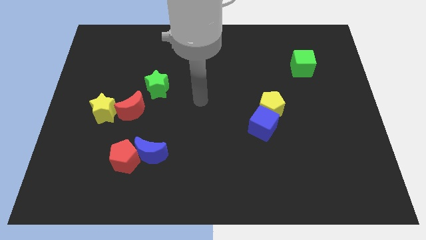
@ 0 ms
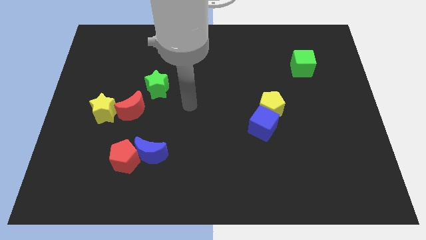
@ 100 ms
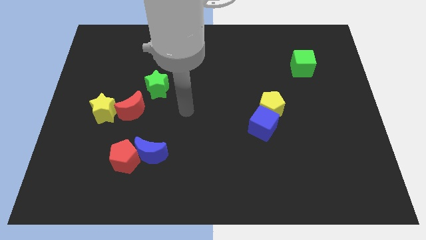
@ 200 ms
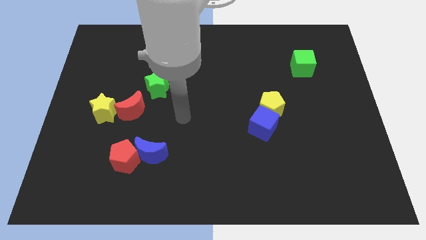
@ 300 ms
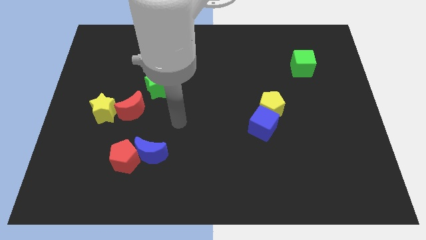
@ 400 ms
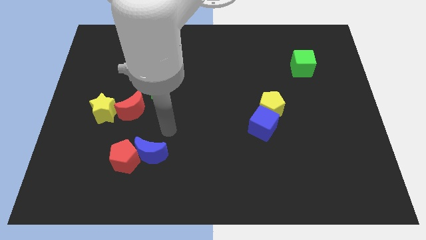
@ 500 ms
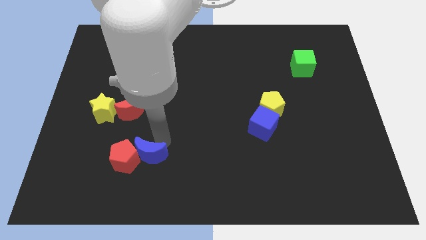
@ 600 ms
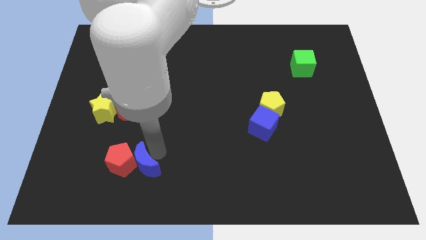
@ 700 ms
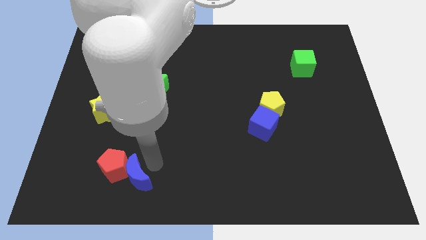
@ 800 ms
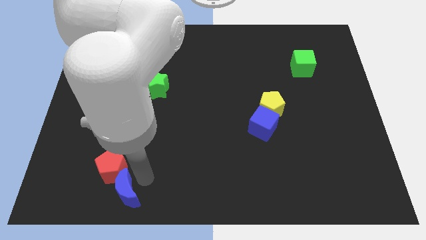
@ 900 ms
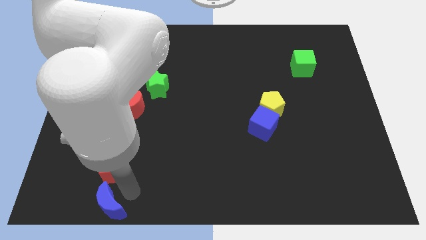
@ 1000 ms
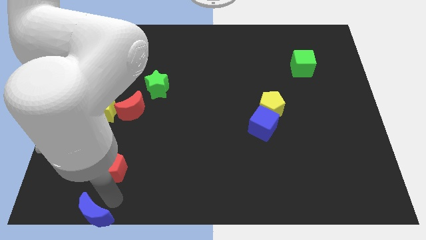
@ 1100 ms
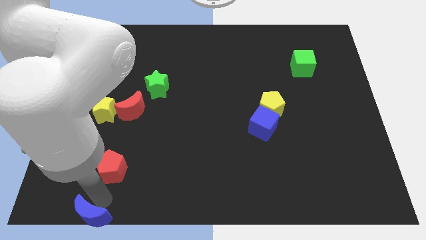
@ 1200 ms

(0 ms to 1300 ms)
move the red pentagon away from the blue moon

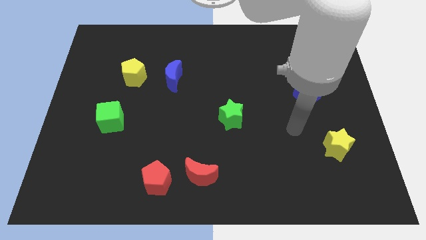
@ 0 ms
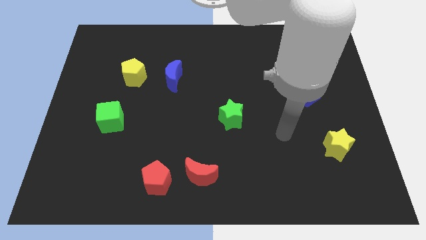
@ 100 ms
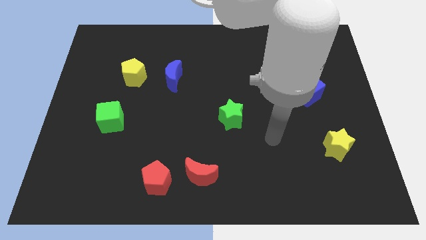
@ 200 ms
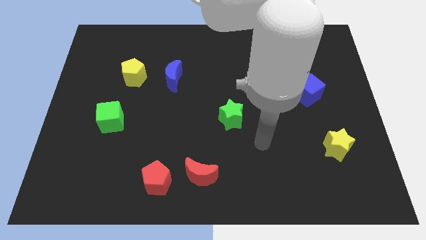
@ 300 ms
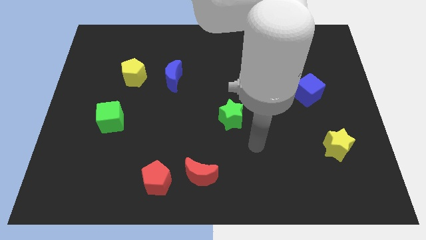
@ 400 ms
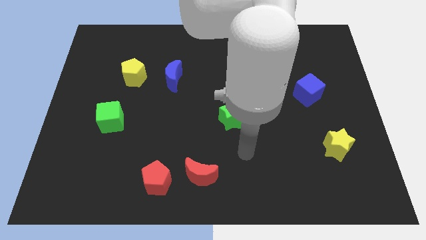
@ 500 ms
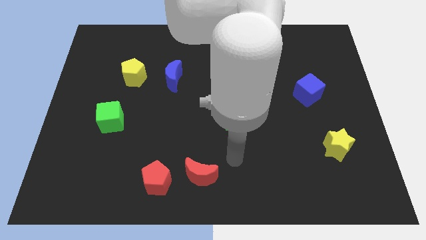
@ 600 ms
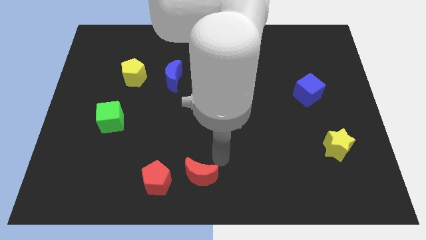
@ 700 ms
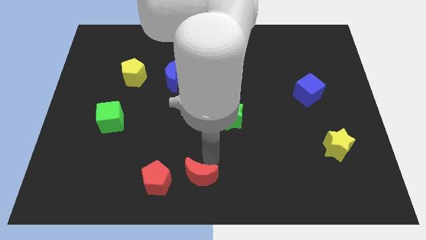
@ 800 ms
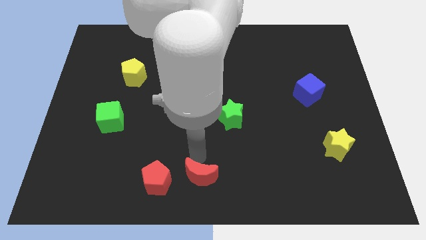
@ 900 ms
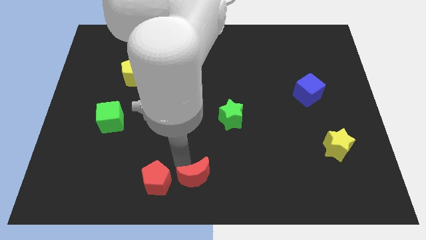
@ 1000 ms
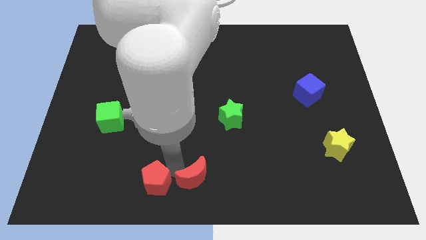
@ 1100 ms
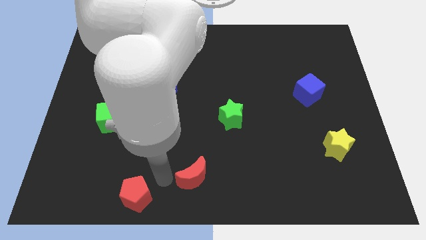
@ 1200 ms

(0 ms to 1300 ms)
separate the red moon from the red pentagon

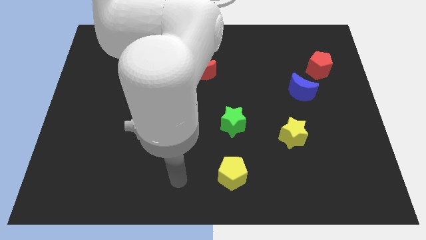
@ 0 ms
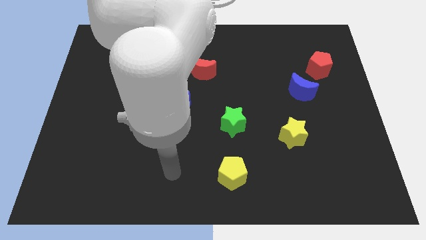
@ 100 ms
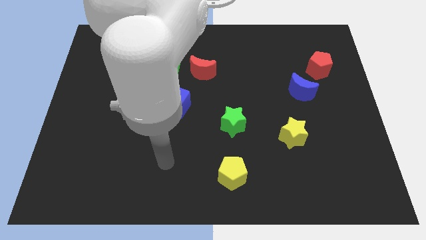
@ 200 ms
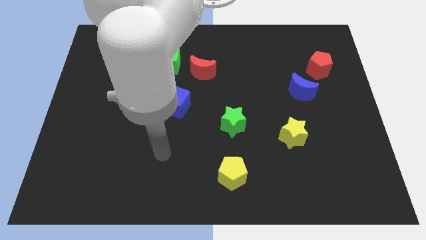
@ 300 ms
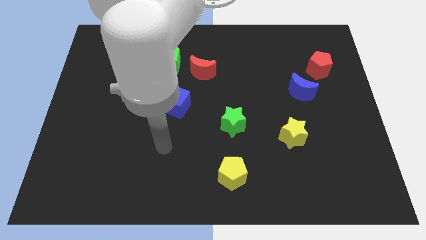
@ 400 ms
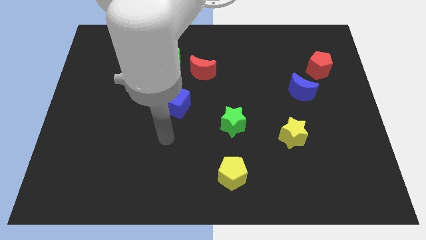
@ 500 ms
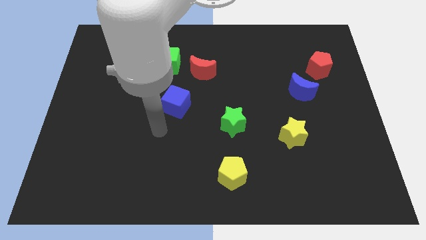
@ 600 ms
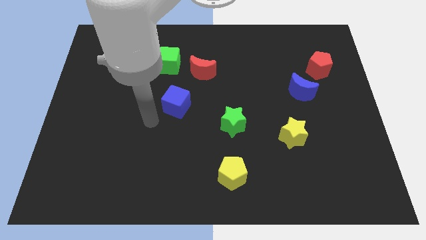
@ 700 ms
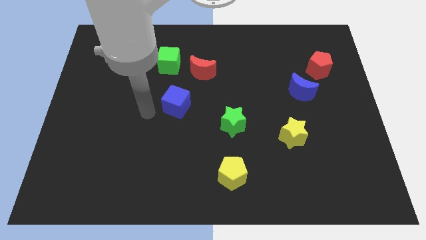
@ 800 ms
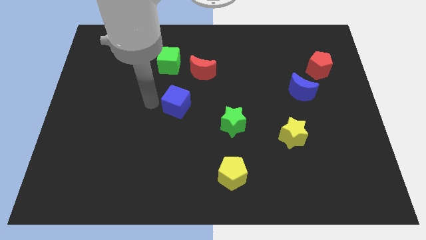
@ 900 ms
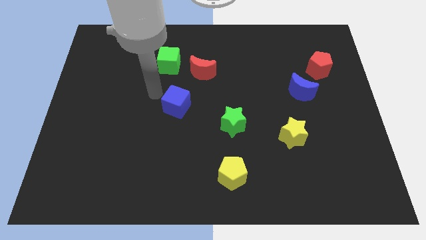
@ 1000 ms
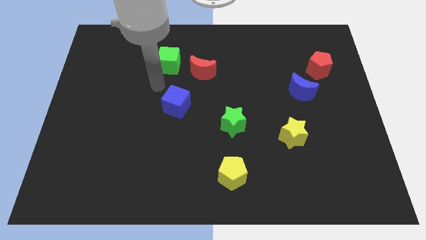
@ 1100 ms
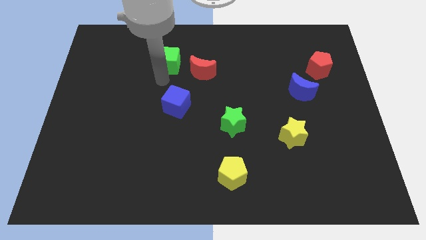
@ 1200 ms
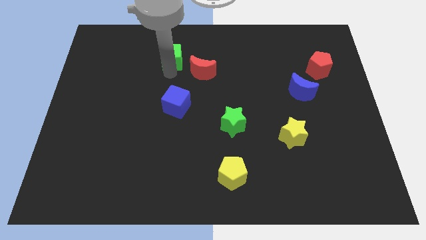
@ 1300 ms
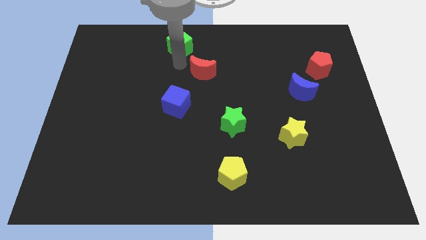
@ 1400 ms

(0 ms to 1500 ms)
move the red moon away from the green cube

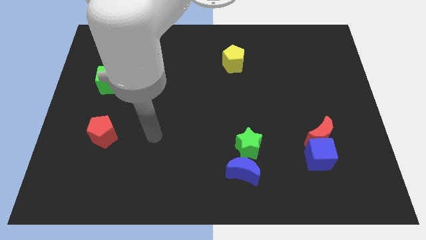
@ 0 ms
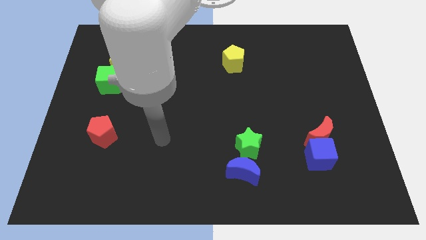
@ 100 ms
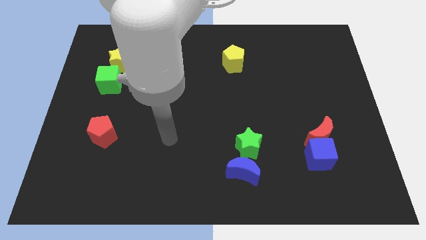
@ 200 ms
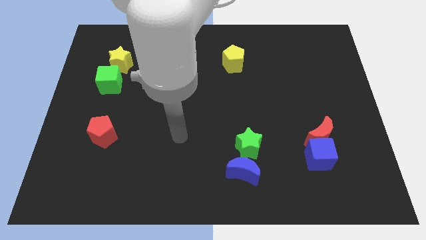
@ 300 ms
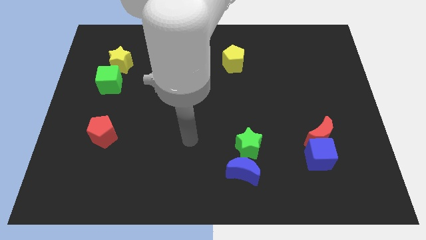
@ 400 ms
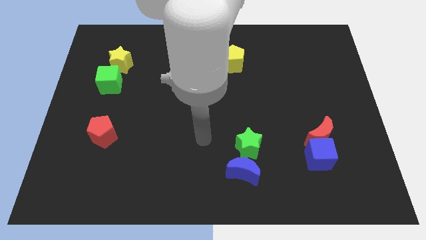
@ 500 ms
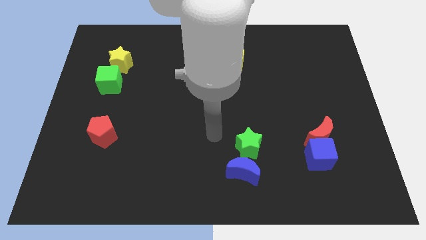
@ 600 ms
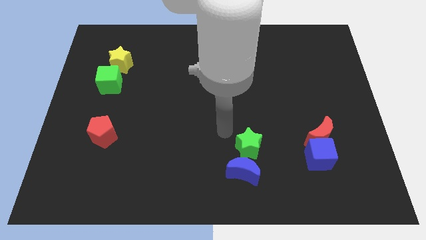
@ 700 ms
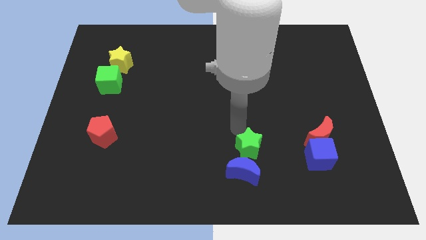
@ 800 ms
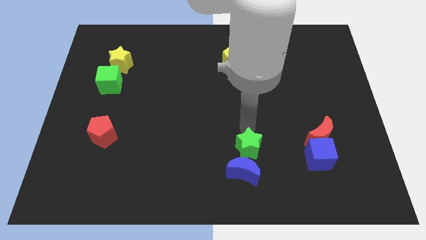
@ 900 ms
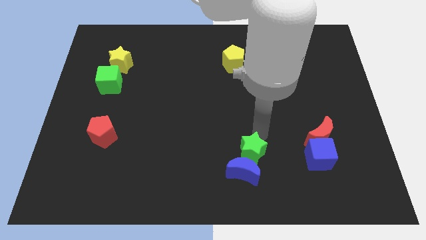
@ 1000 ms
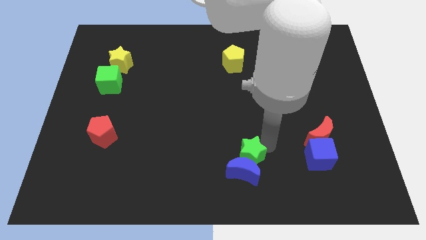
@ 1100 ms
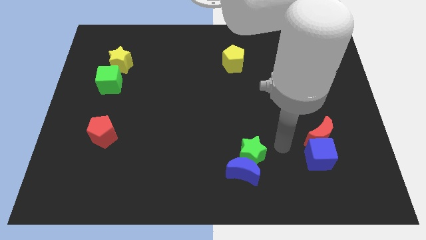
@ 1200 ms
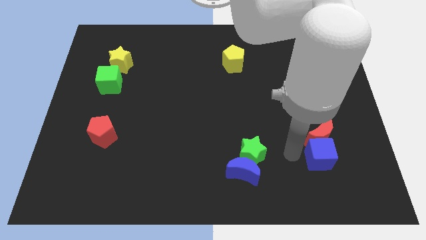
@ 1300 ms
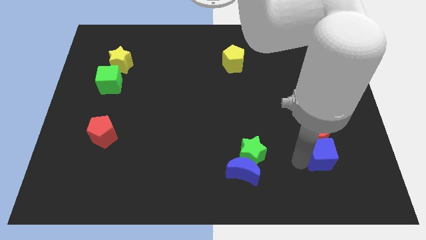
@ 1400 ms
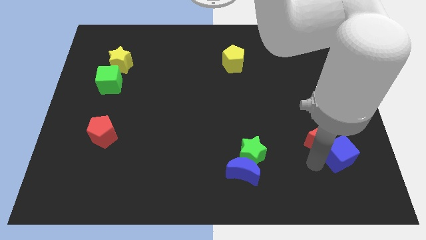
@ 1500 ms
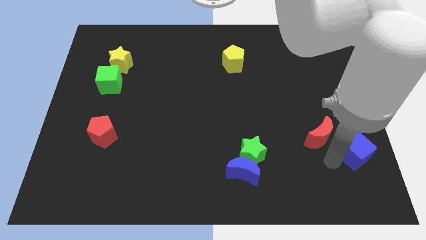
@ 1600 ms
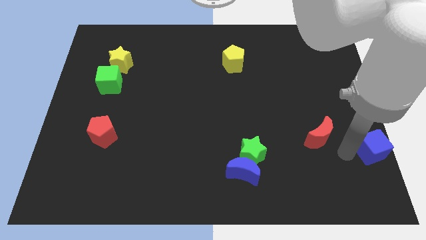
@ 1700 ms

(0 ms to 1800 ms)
pull the red moon apart from the blue cube

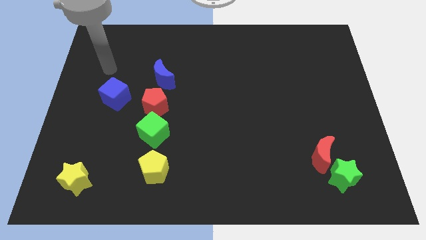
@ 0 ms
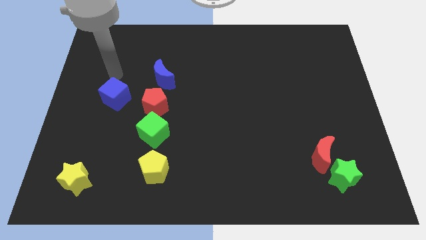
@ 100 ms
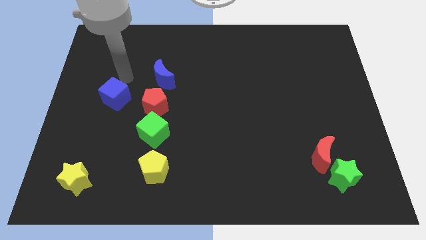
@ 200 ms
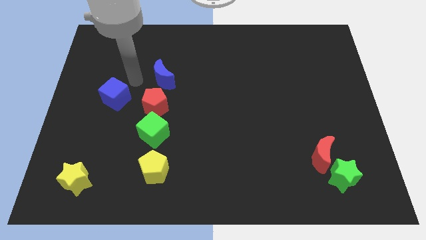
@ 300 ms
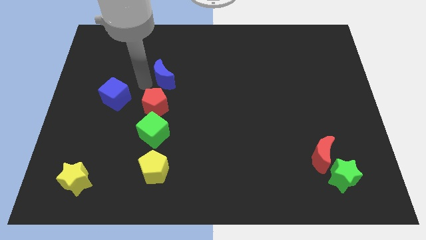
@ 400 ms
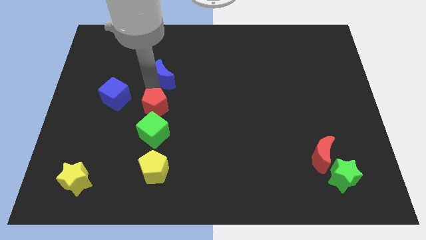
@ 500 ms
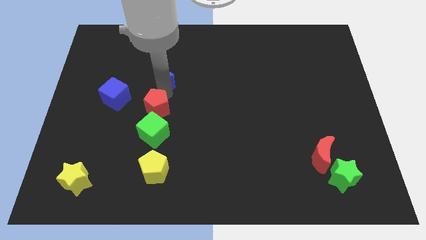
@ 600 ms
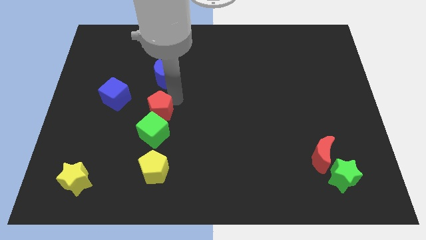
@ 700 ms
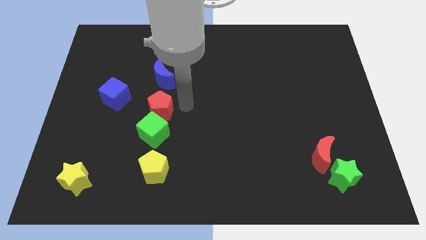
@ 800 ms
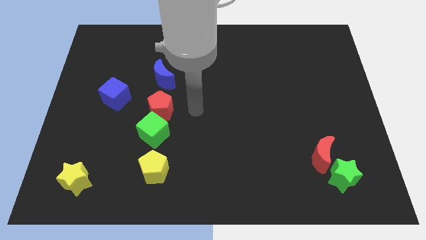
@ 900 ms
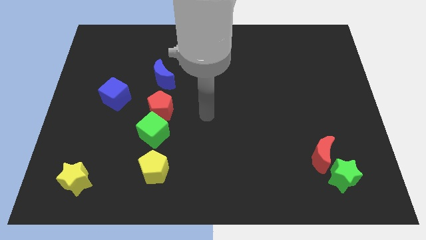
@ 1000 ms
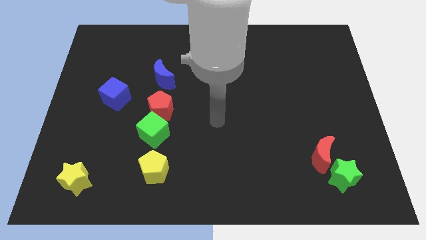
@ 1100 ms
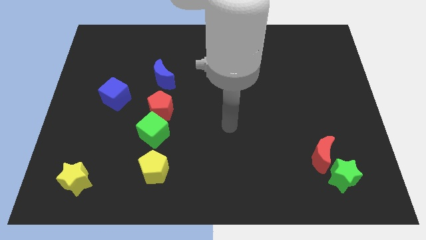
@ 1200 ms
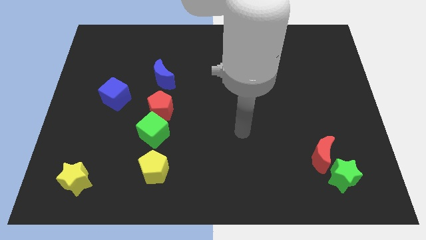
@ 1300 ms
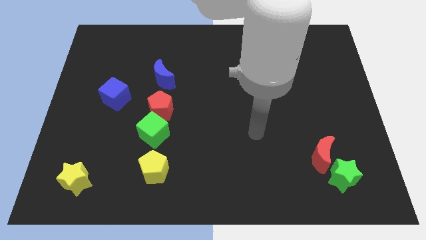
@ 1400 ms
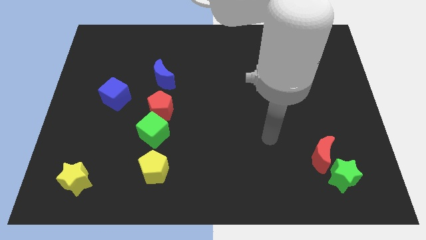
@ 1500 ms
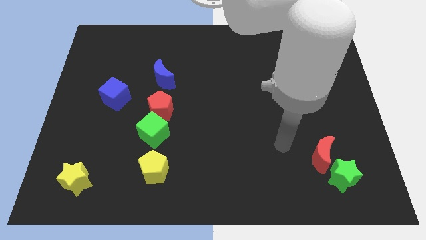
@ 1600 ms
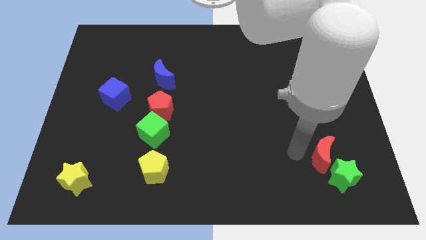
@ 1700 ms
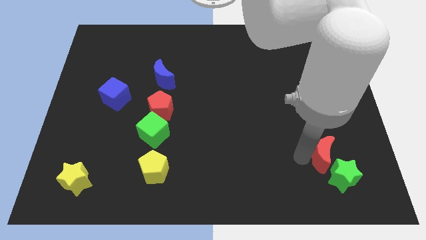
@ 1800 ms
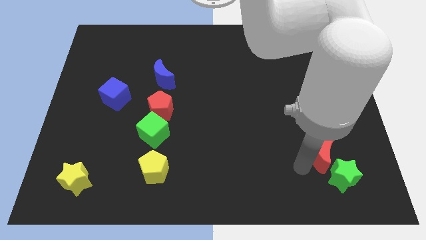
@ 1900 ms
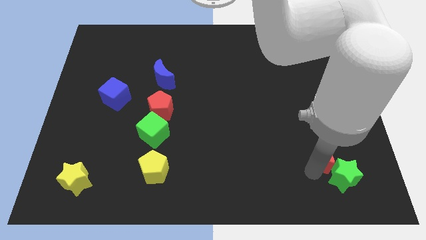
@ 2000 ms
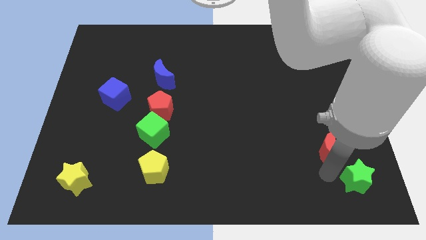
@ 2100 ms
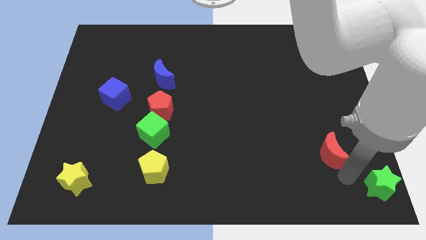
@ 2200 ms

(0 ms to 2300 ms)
move the red moon away from the green star

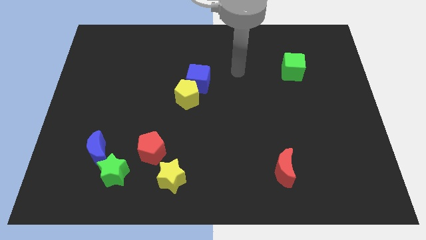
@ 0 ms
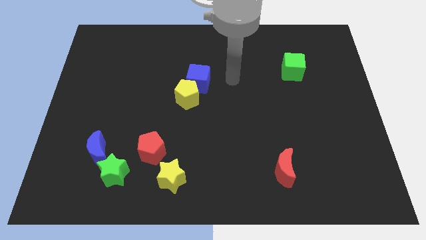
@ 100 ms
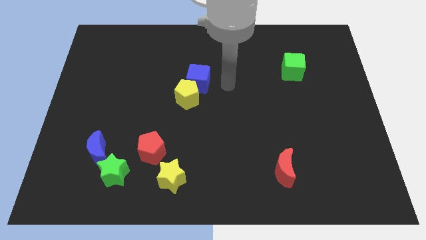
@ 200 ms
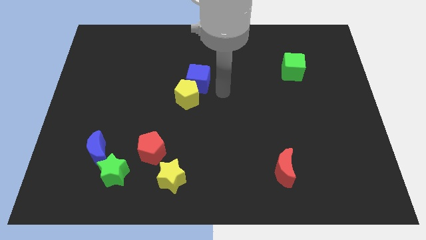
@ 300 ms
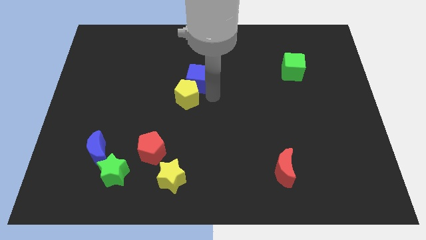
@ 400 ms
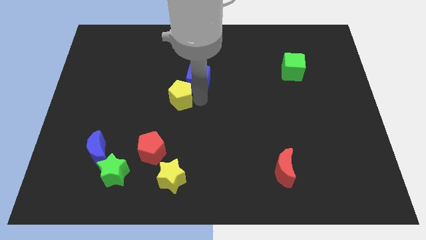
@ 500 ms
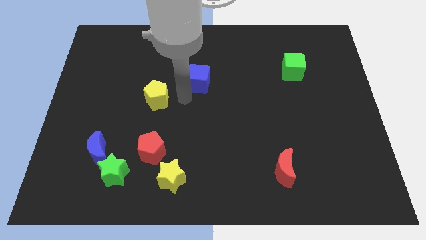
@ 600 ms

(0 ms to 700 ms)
move the blue cube away from the yellow pentagon

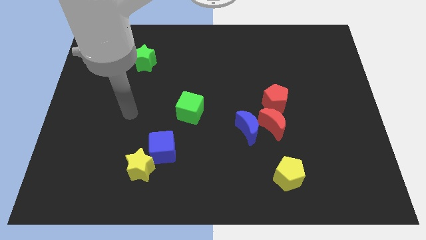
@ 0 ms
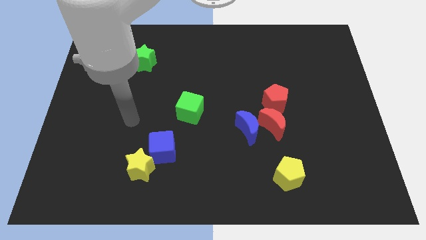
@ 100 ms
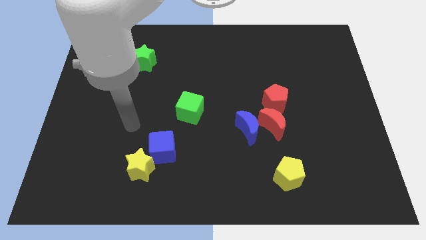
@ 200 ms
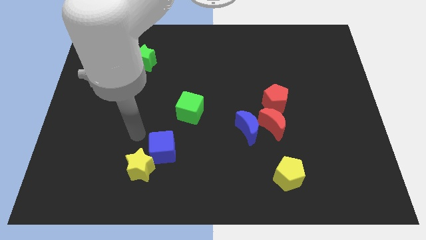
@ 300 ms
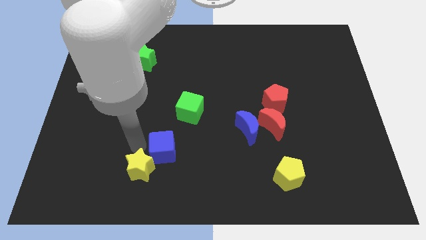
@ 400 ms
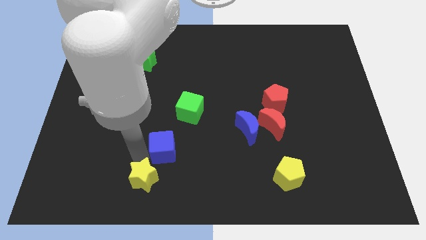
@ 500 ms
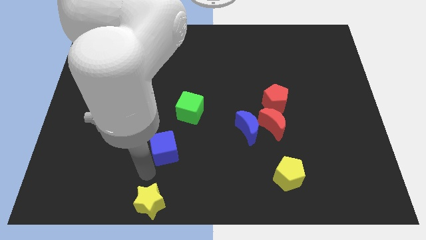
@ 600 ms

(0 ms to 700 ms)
pull the blue cube apart from the yellow star
